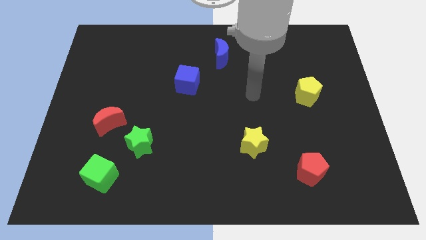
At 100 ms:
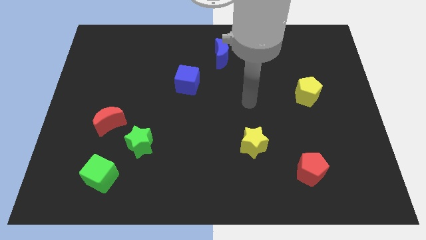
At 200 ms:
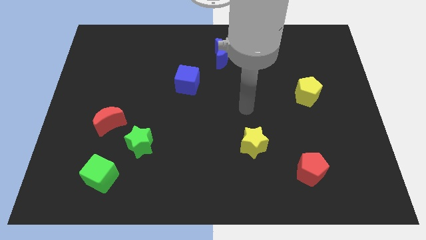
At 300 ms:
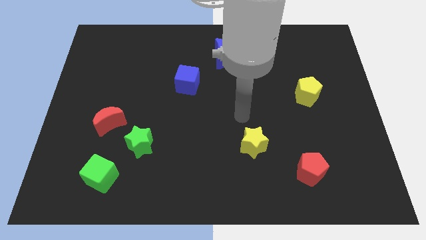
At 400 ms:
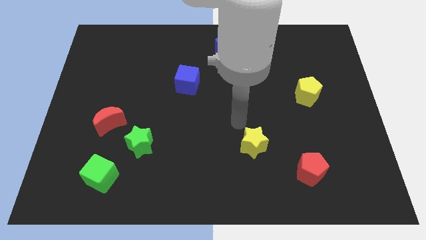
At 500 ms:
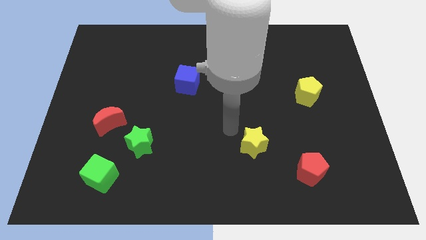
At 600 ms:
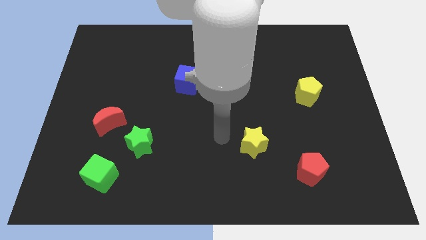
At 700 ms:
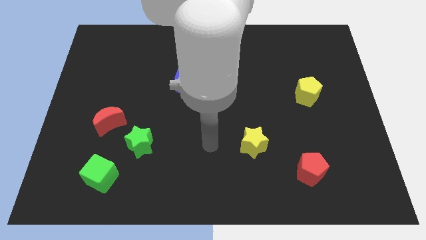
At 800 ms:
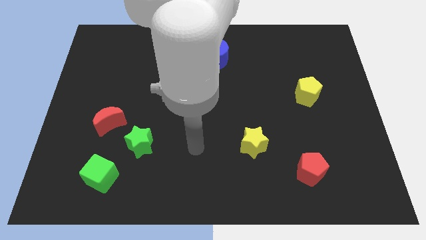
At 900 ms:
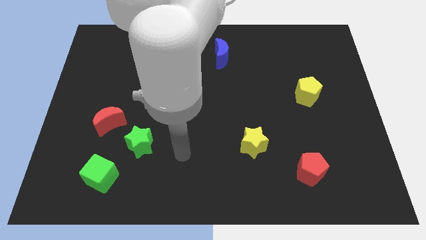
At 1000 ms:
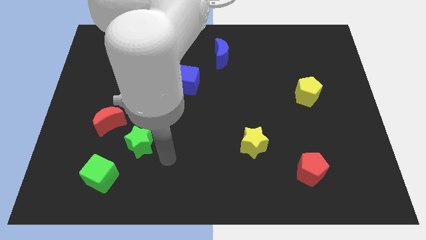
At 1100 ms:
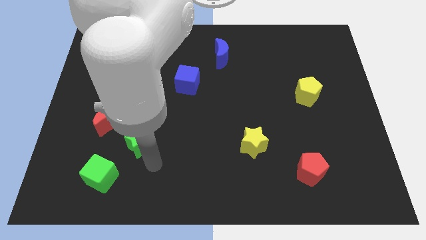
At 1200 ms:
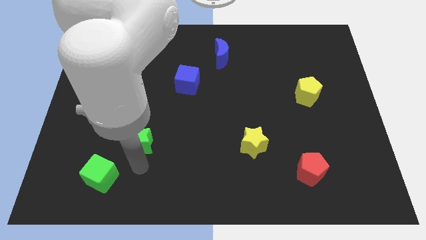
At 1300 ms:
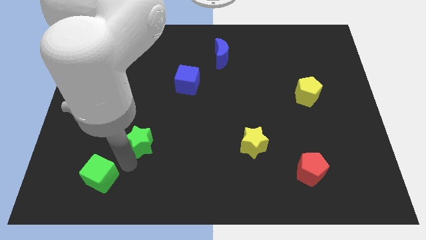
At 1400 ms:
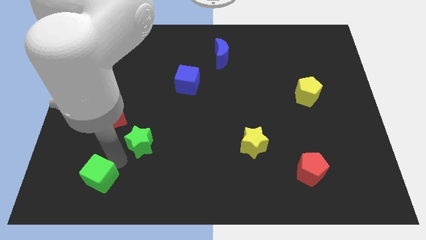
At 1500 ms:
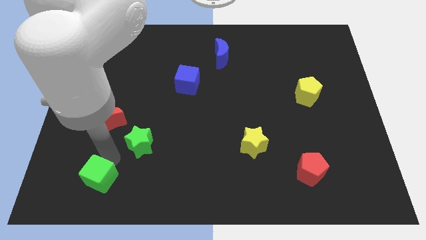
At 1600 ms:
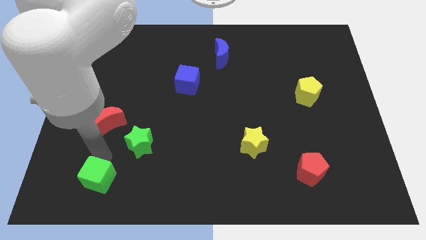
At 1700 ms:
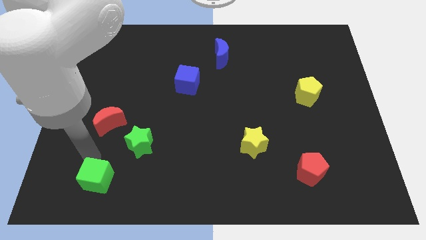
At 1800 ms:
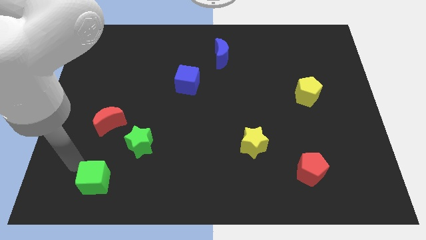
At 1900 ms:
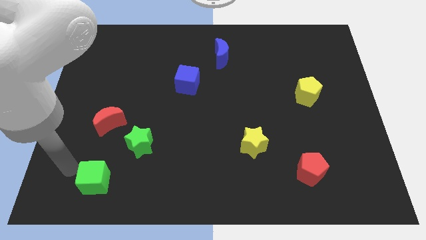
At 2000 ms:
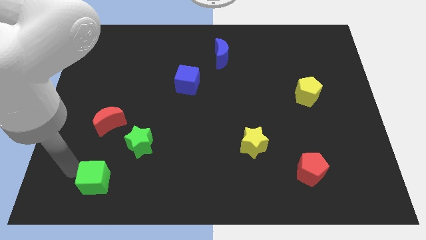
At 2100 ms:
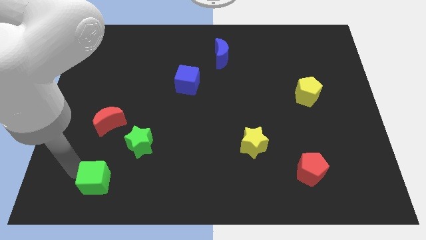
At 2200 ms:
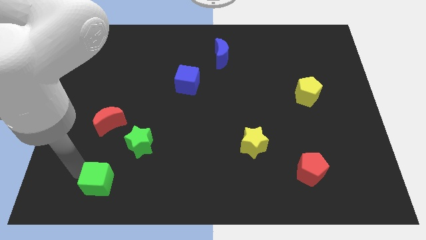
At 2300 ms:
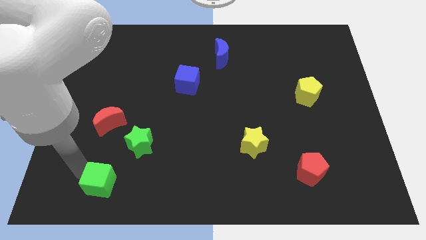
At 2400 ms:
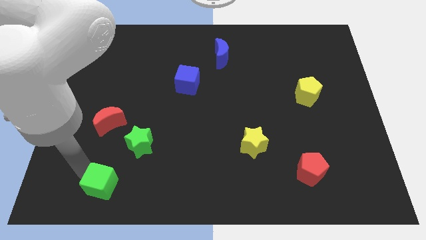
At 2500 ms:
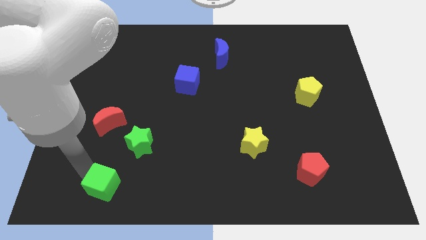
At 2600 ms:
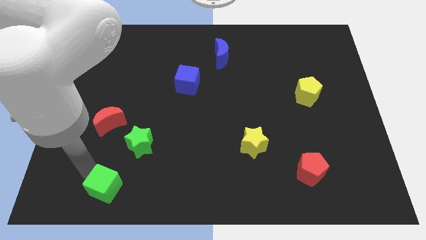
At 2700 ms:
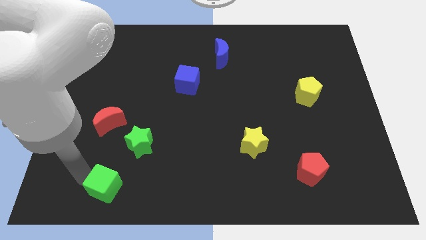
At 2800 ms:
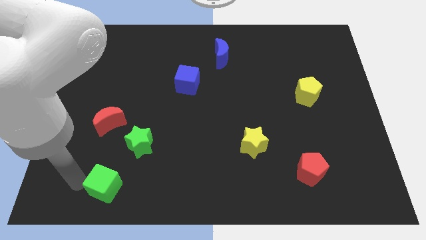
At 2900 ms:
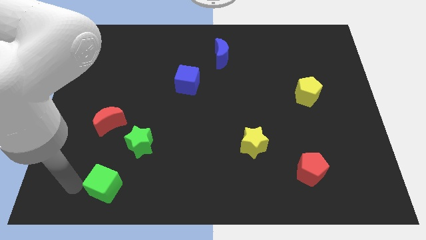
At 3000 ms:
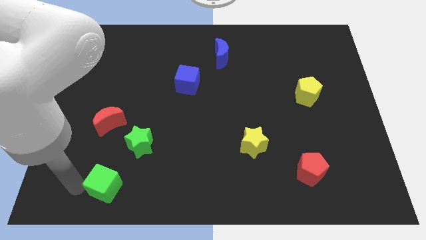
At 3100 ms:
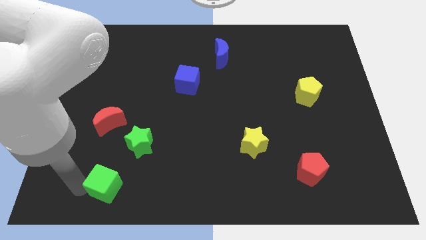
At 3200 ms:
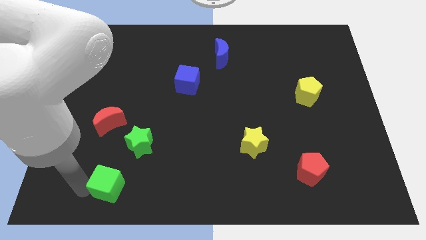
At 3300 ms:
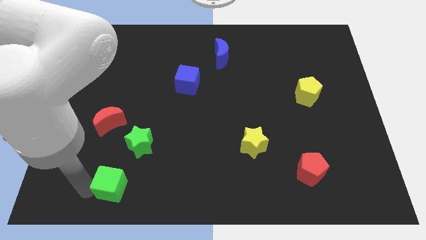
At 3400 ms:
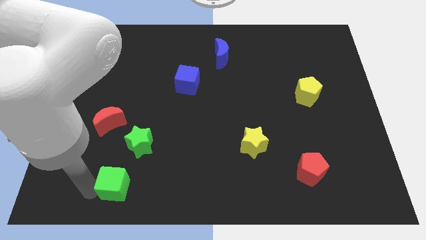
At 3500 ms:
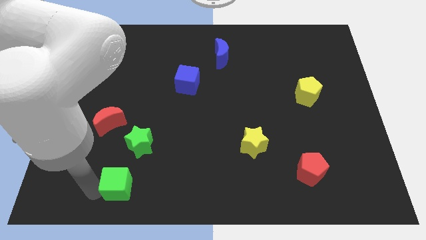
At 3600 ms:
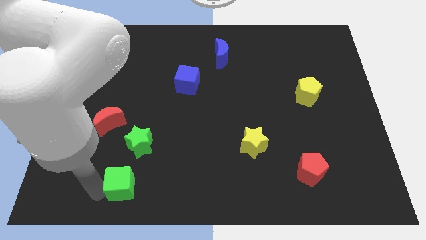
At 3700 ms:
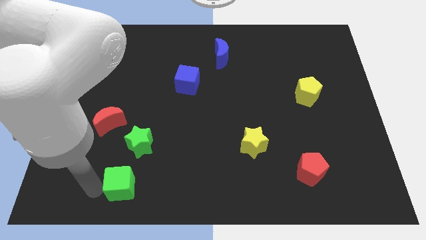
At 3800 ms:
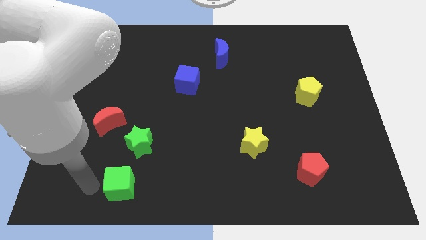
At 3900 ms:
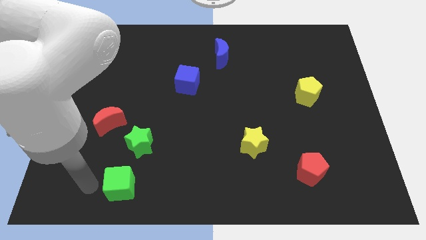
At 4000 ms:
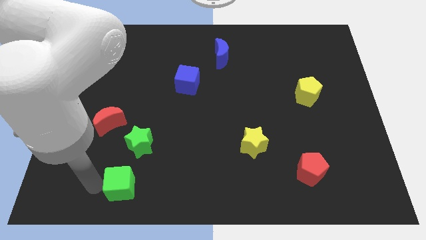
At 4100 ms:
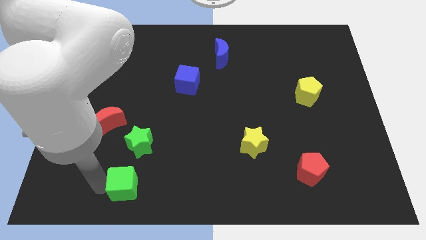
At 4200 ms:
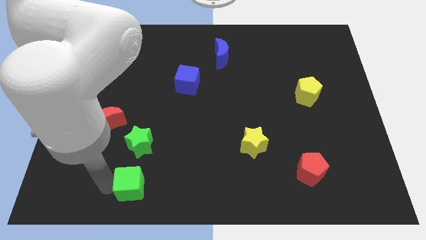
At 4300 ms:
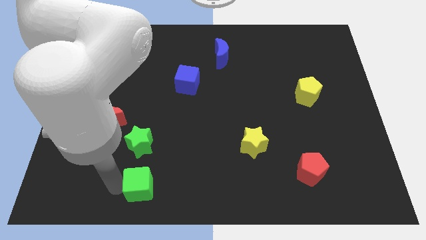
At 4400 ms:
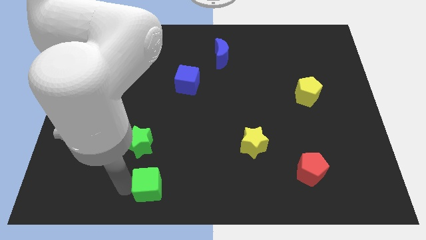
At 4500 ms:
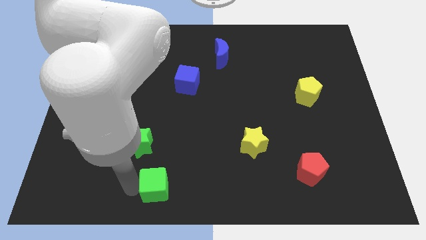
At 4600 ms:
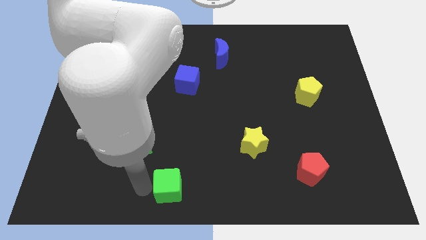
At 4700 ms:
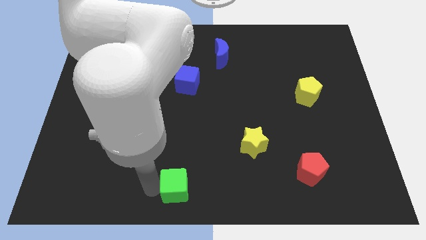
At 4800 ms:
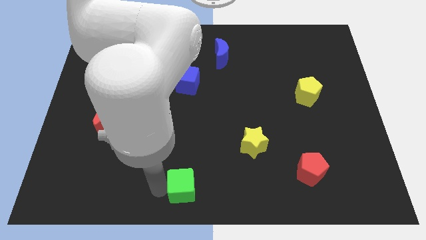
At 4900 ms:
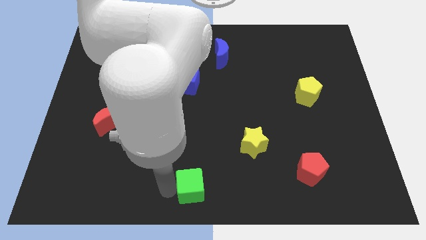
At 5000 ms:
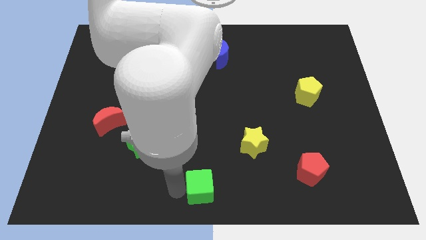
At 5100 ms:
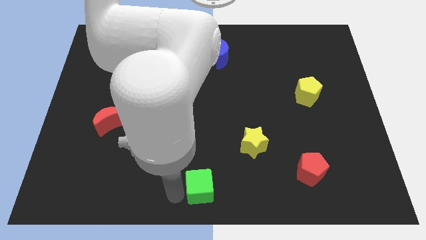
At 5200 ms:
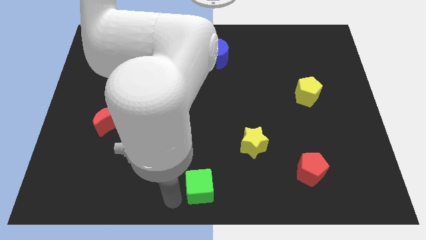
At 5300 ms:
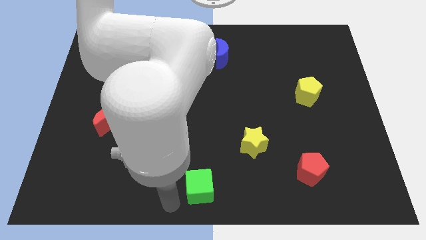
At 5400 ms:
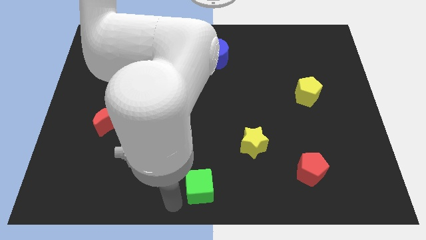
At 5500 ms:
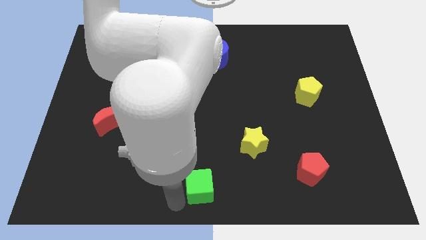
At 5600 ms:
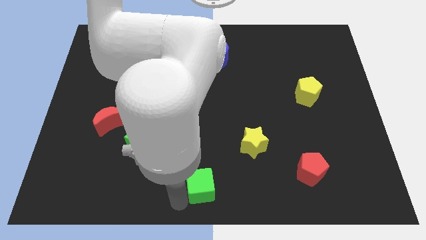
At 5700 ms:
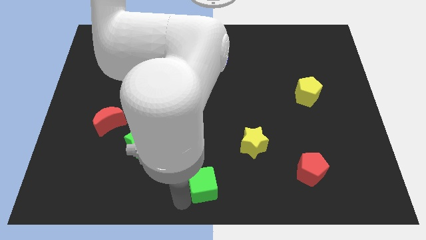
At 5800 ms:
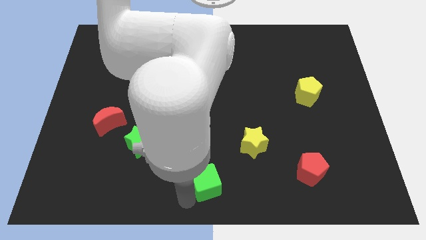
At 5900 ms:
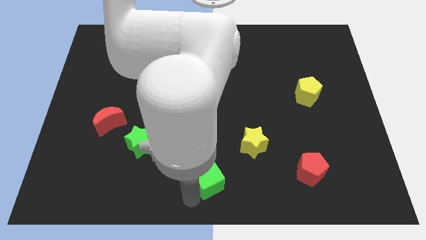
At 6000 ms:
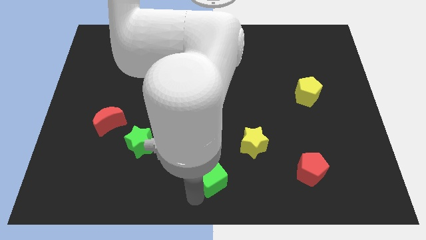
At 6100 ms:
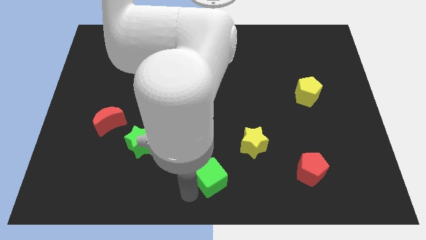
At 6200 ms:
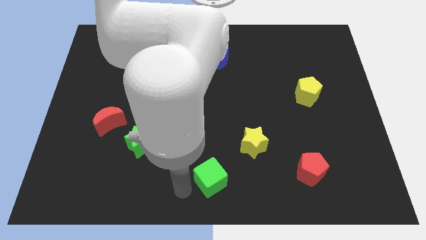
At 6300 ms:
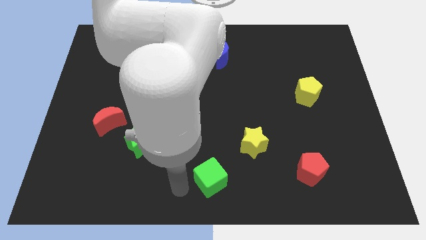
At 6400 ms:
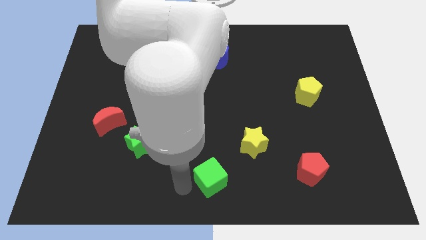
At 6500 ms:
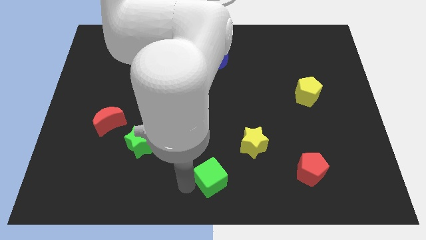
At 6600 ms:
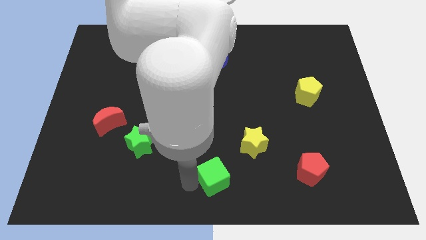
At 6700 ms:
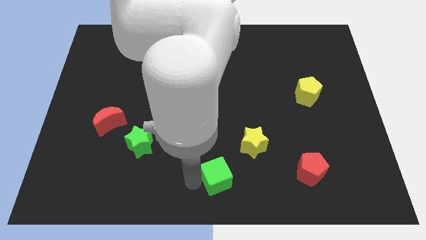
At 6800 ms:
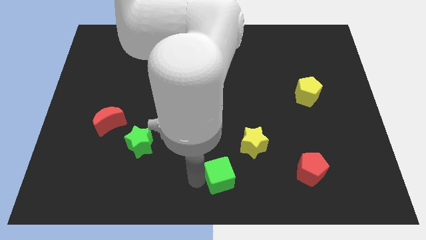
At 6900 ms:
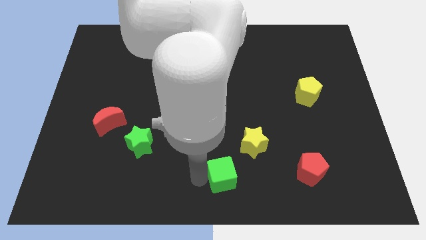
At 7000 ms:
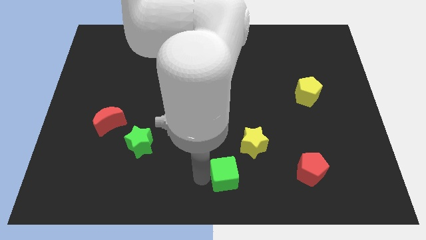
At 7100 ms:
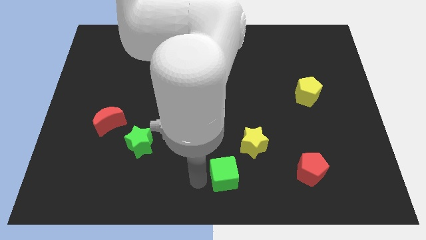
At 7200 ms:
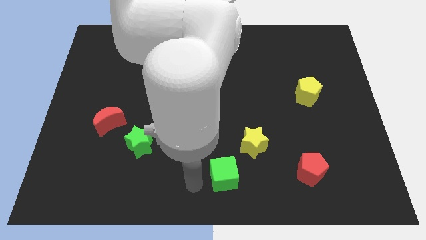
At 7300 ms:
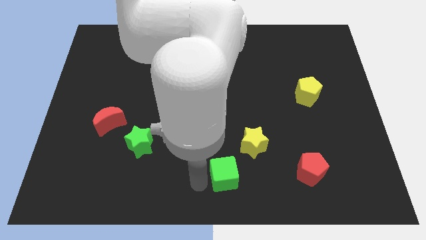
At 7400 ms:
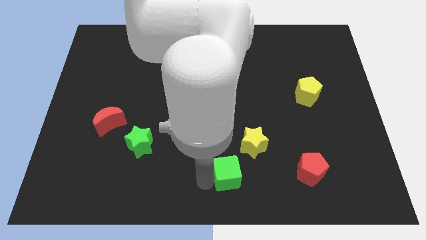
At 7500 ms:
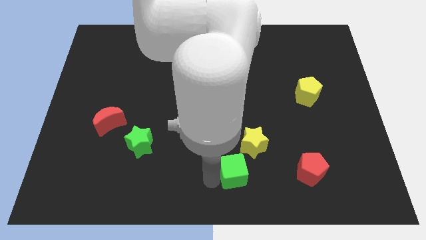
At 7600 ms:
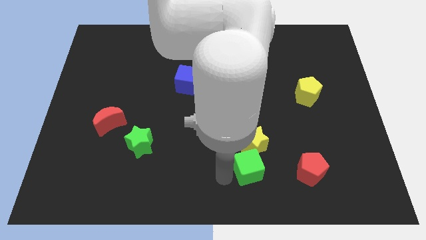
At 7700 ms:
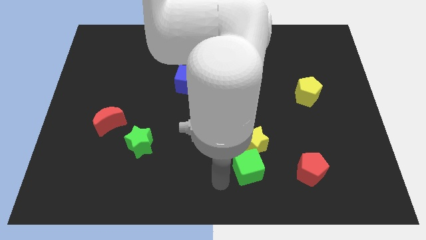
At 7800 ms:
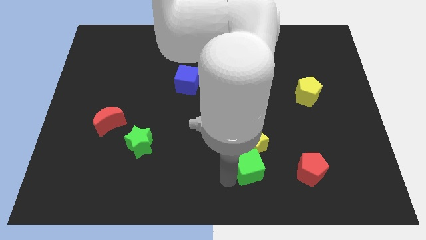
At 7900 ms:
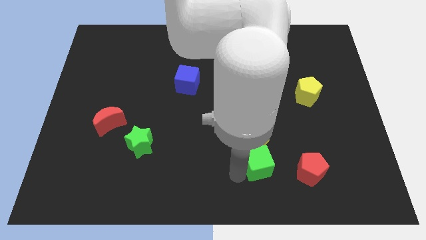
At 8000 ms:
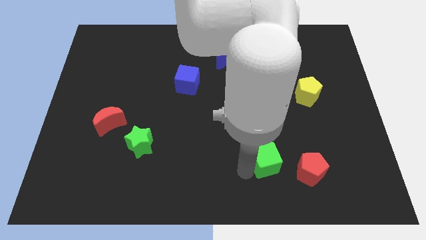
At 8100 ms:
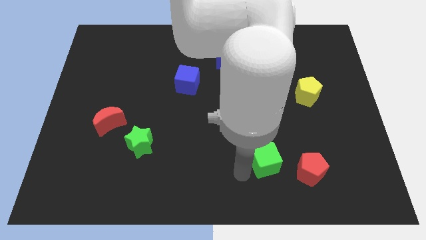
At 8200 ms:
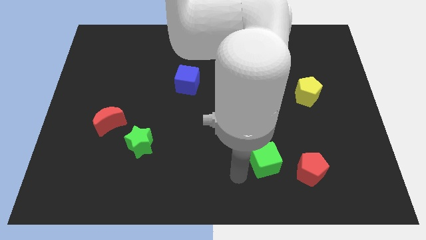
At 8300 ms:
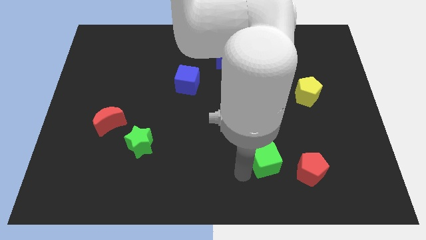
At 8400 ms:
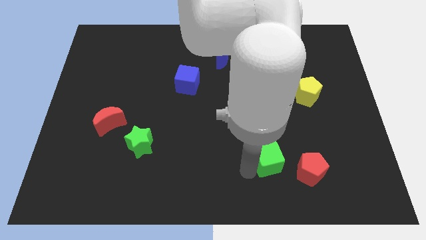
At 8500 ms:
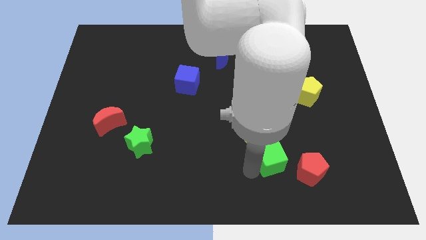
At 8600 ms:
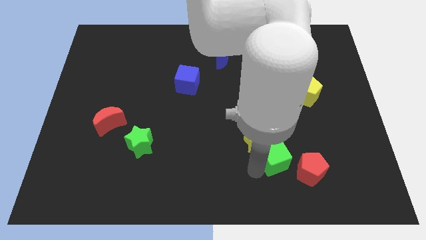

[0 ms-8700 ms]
put the green cube right of the yellow star
